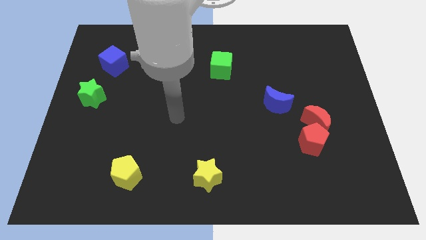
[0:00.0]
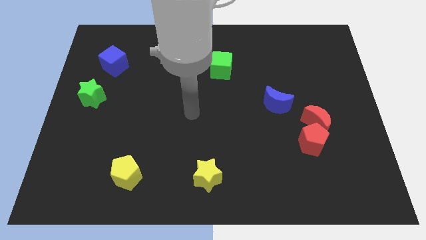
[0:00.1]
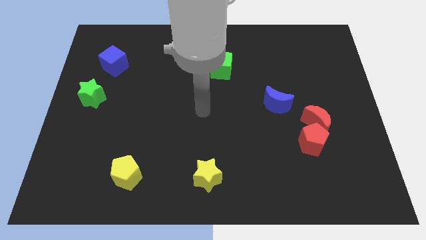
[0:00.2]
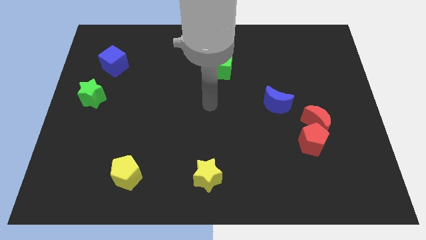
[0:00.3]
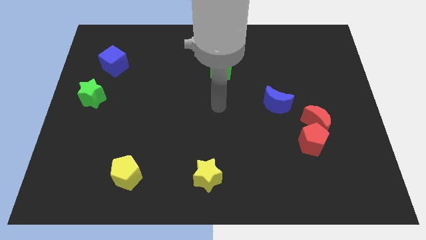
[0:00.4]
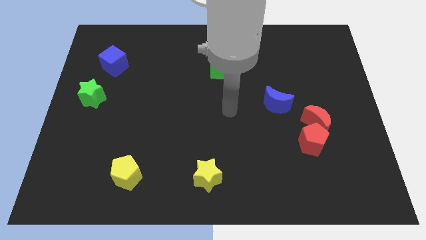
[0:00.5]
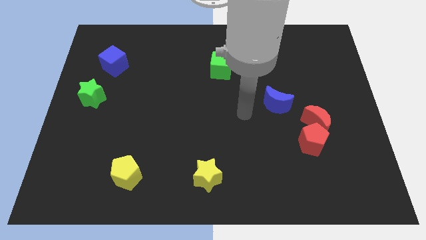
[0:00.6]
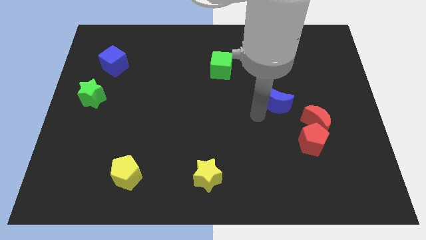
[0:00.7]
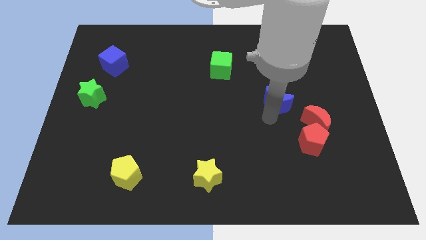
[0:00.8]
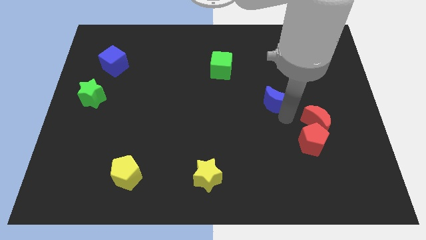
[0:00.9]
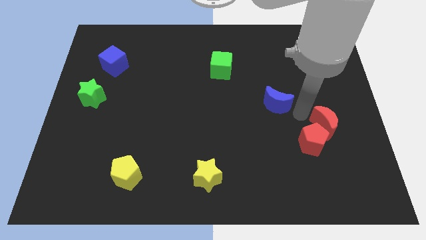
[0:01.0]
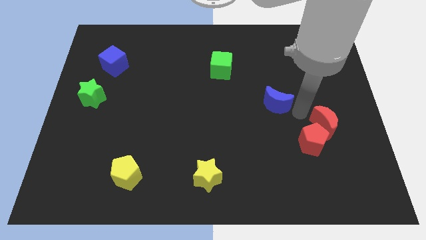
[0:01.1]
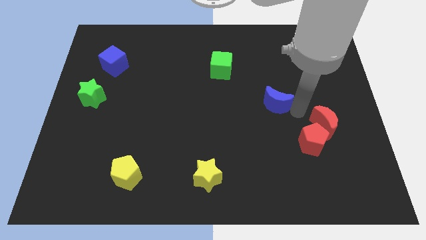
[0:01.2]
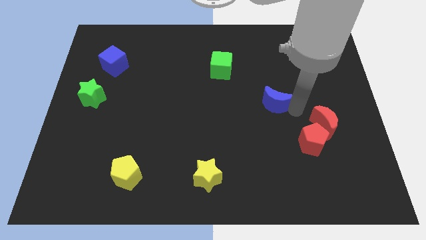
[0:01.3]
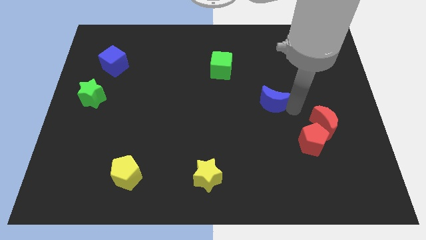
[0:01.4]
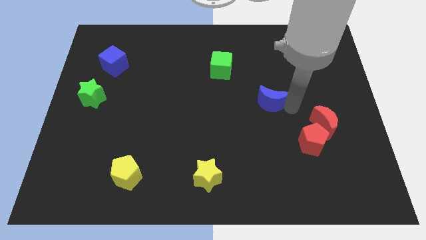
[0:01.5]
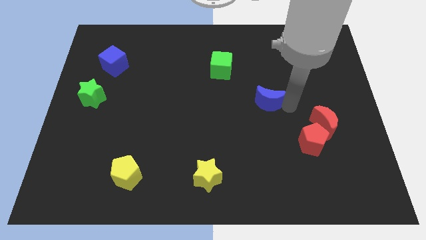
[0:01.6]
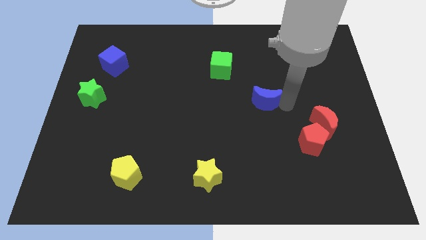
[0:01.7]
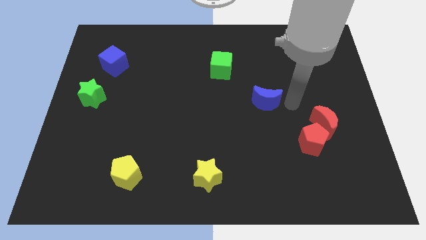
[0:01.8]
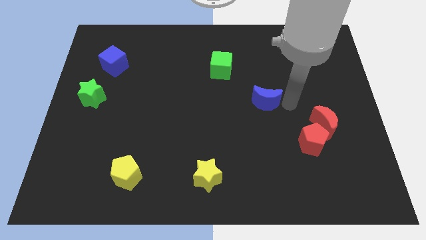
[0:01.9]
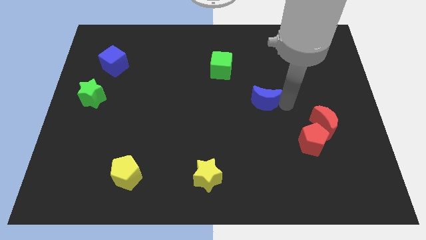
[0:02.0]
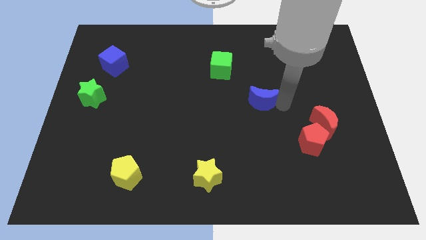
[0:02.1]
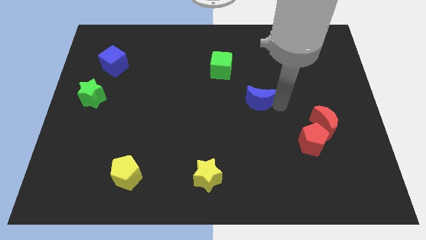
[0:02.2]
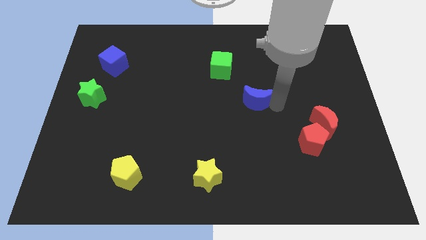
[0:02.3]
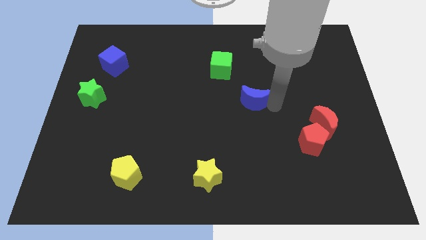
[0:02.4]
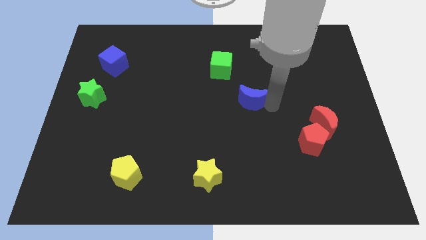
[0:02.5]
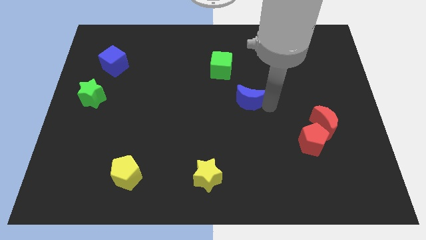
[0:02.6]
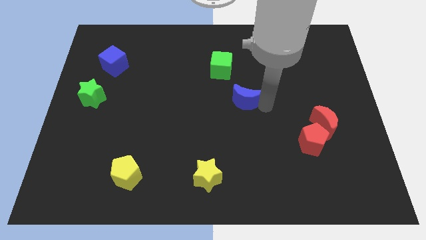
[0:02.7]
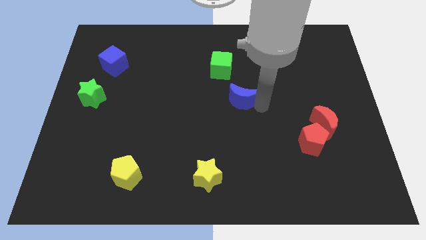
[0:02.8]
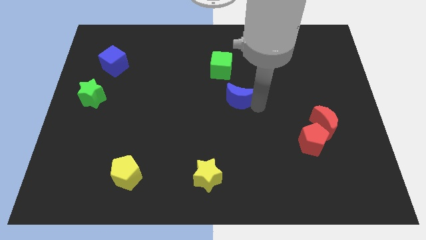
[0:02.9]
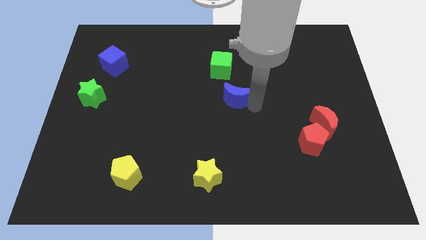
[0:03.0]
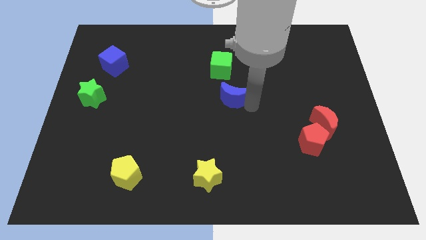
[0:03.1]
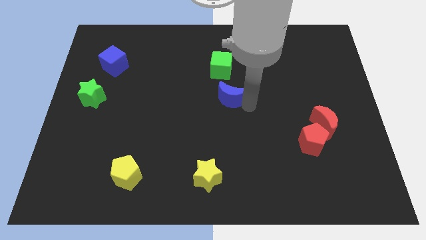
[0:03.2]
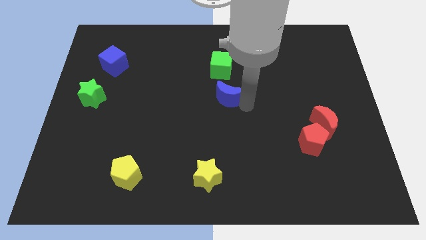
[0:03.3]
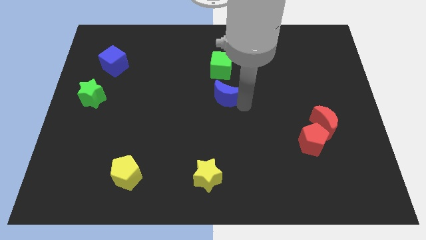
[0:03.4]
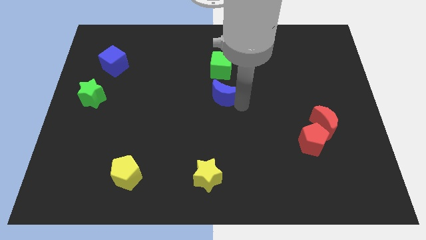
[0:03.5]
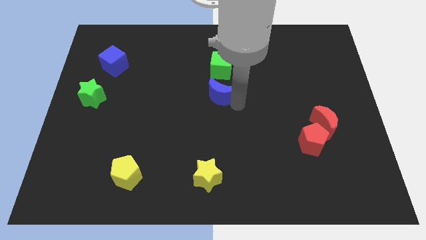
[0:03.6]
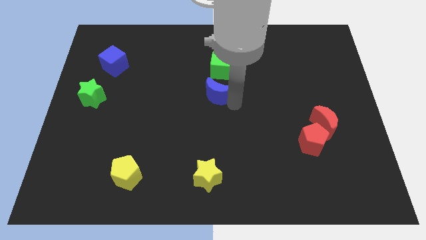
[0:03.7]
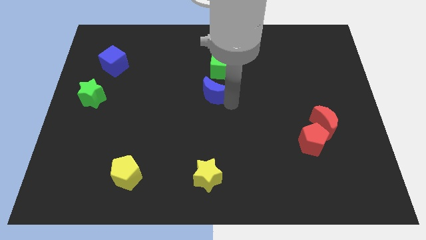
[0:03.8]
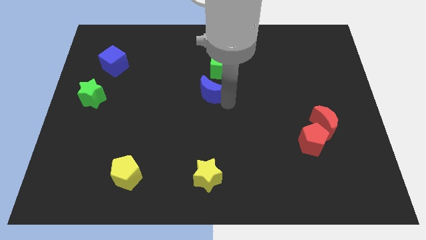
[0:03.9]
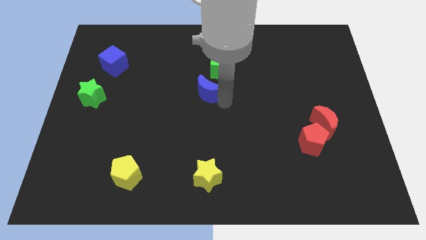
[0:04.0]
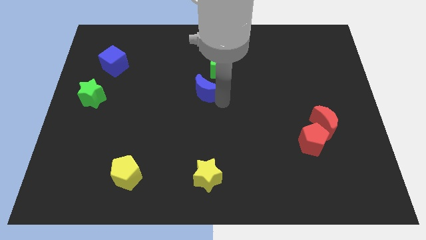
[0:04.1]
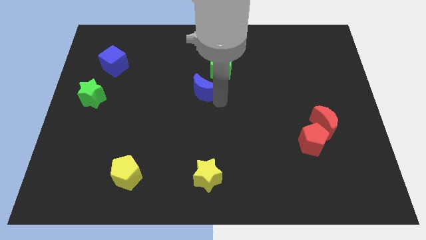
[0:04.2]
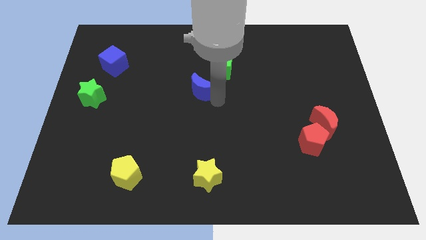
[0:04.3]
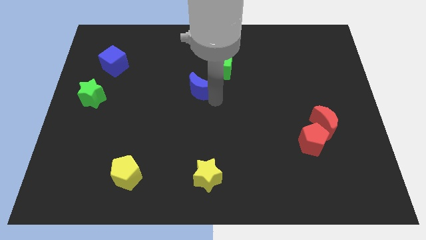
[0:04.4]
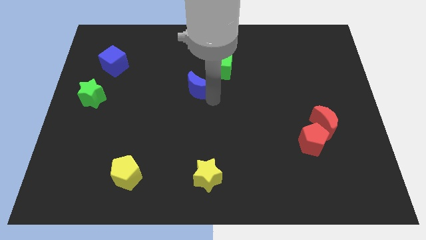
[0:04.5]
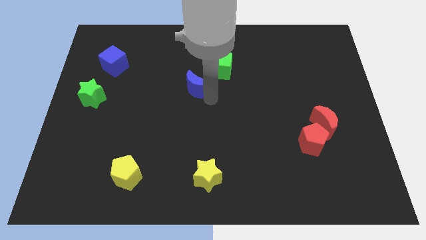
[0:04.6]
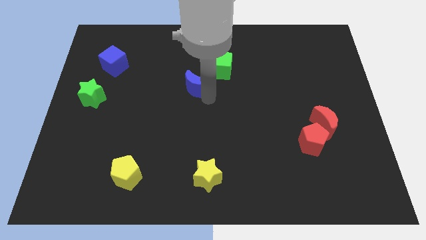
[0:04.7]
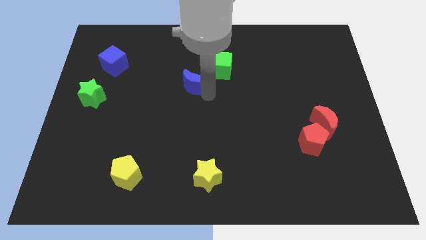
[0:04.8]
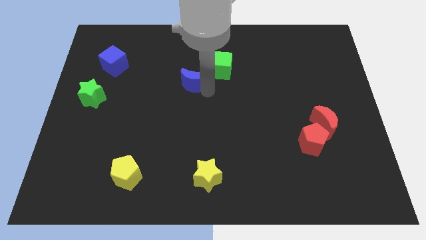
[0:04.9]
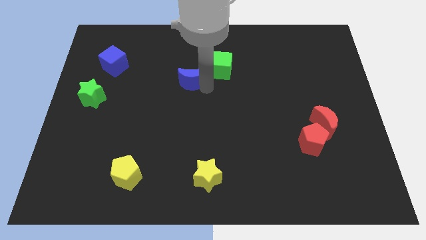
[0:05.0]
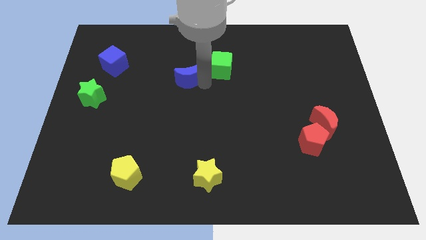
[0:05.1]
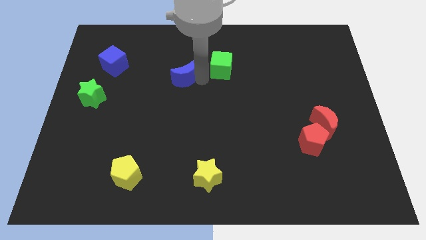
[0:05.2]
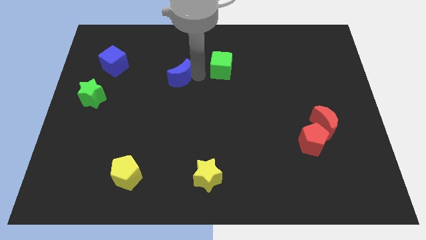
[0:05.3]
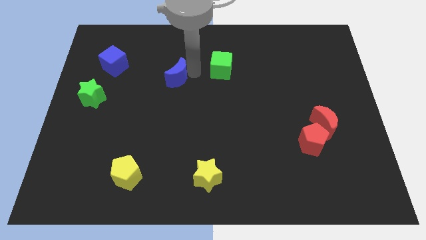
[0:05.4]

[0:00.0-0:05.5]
slide the blue moon left

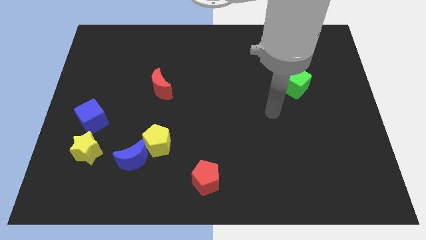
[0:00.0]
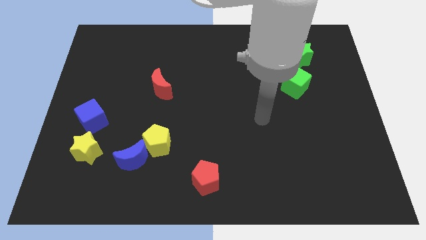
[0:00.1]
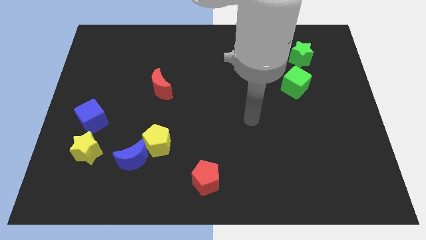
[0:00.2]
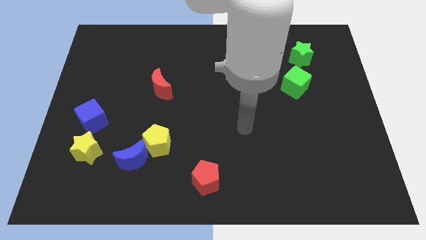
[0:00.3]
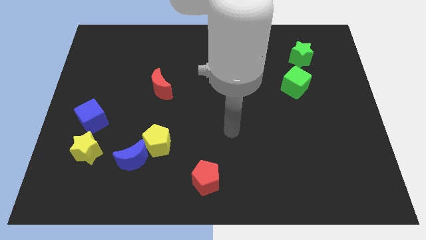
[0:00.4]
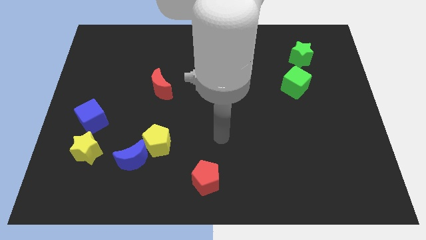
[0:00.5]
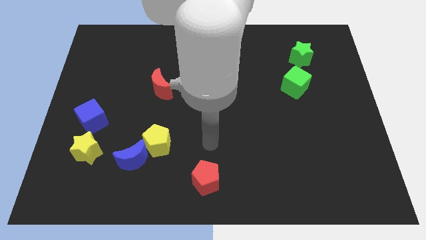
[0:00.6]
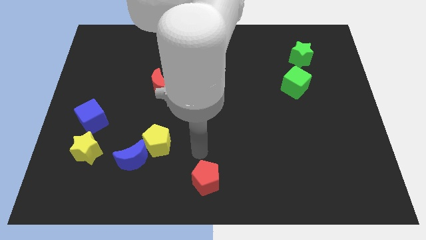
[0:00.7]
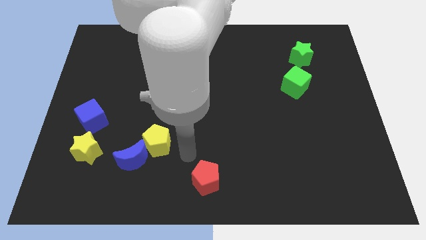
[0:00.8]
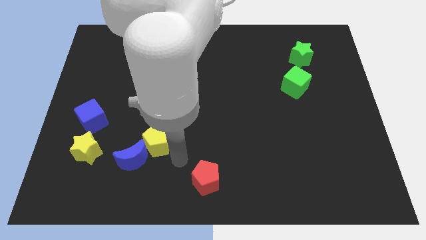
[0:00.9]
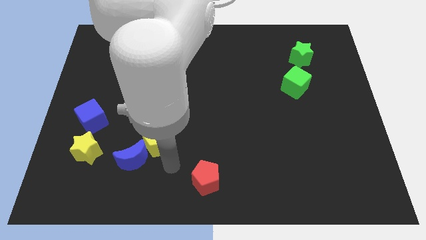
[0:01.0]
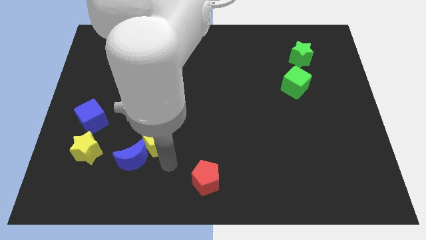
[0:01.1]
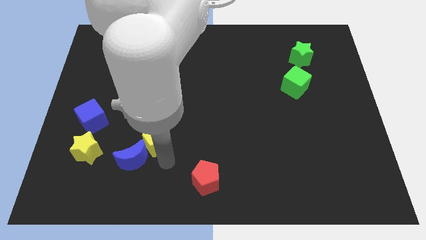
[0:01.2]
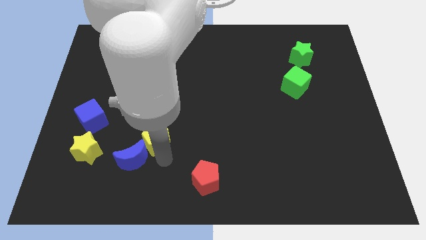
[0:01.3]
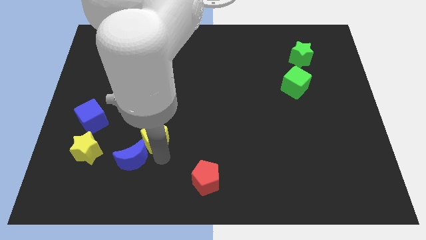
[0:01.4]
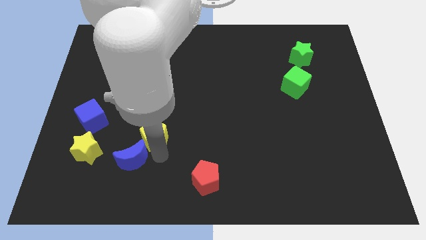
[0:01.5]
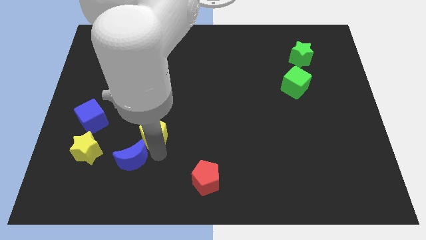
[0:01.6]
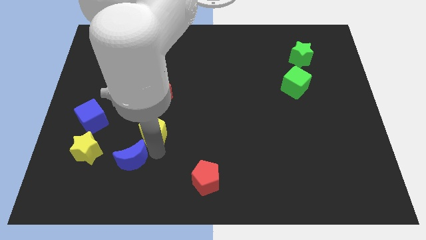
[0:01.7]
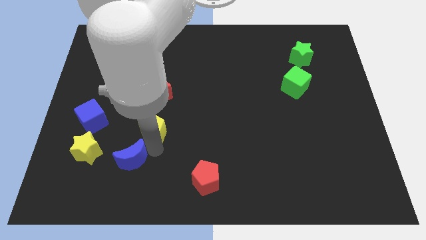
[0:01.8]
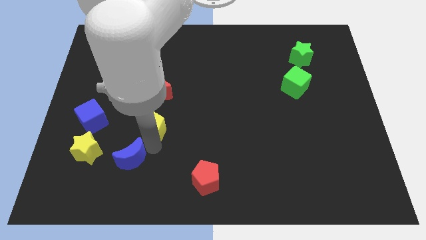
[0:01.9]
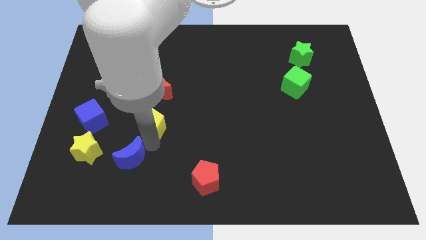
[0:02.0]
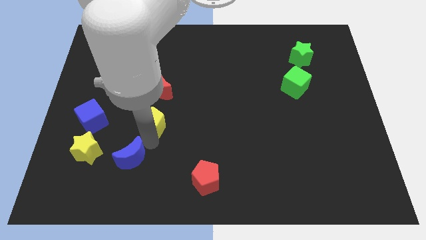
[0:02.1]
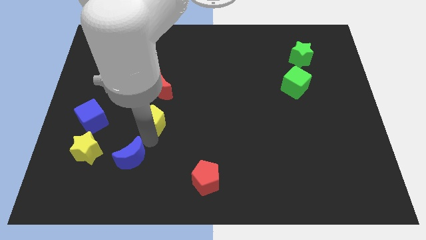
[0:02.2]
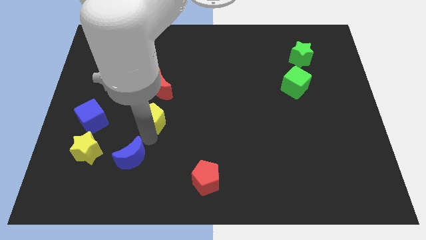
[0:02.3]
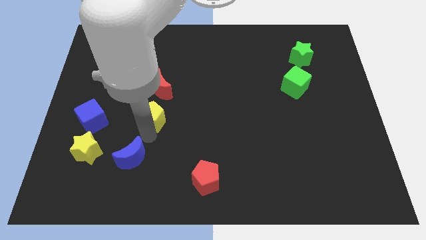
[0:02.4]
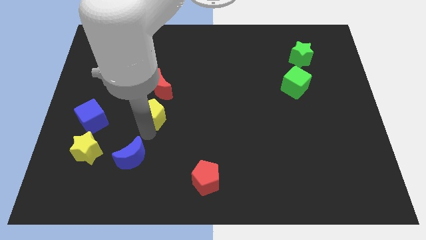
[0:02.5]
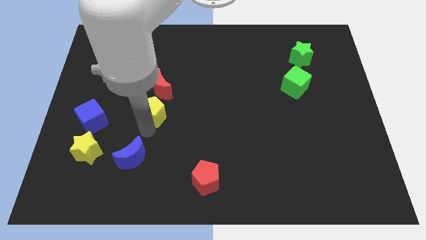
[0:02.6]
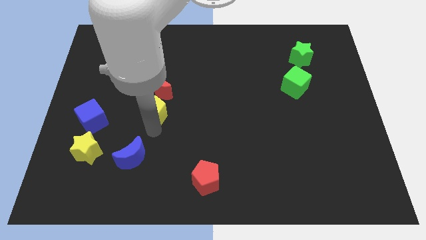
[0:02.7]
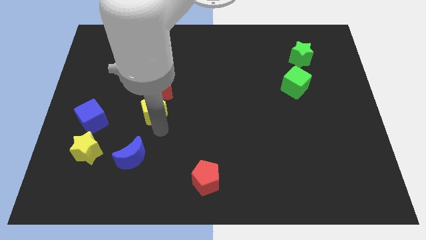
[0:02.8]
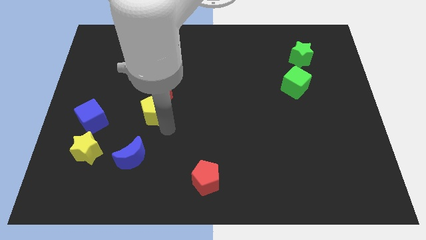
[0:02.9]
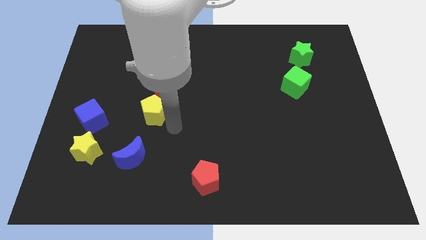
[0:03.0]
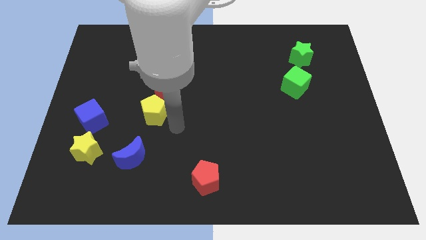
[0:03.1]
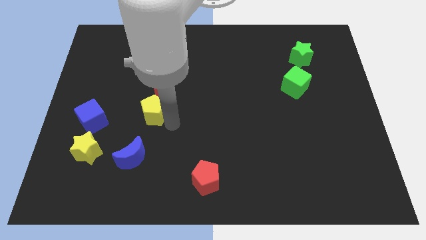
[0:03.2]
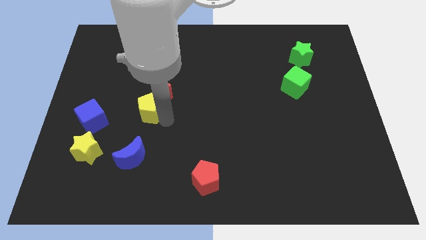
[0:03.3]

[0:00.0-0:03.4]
slightly move the yellow pentagon diagonally up and to the left
